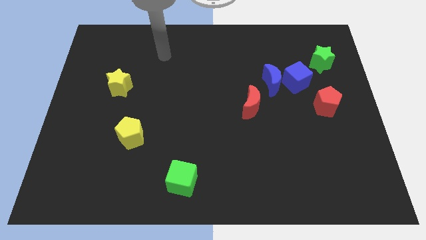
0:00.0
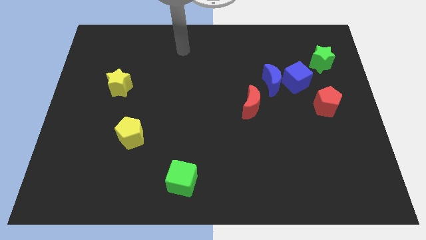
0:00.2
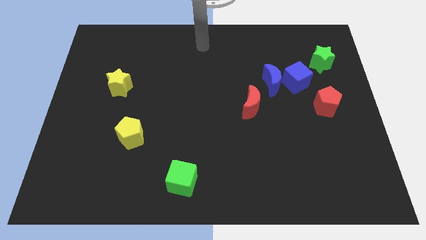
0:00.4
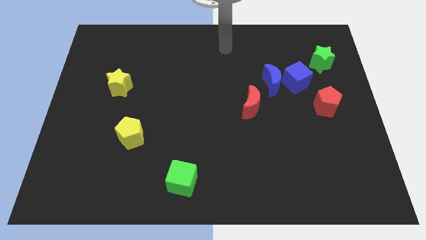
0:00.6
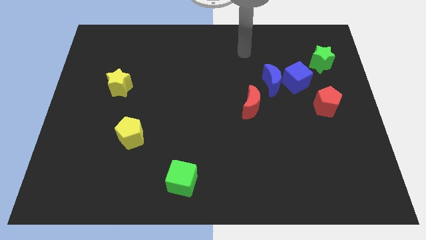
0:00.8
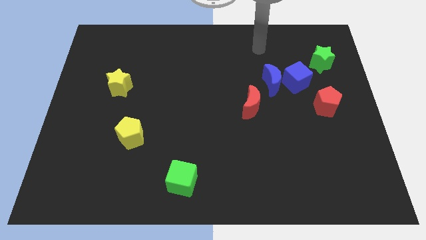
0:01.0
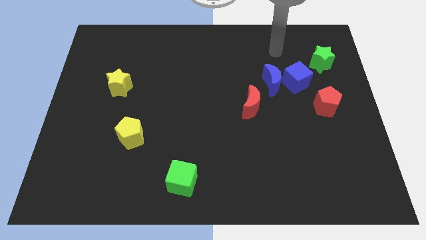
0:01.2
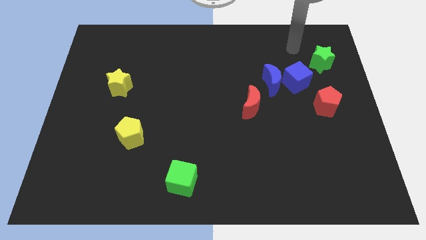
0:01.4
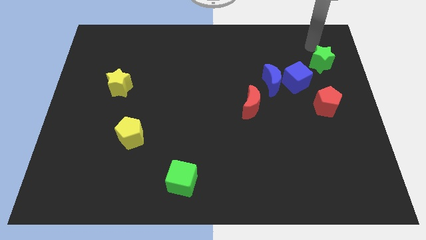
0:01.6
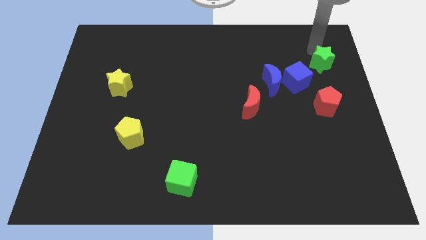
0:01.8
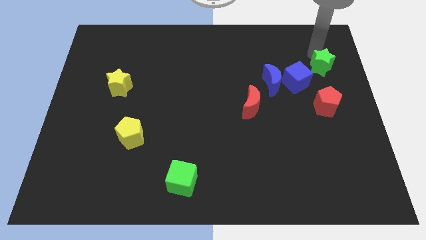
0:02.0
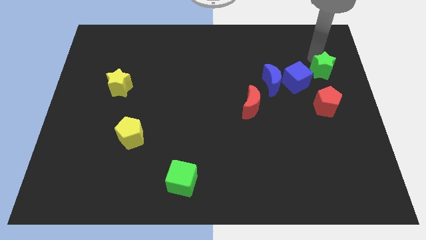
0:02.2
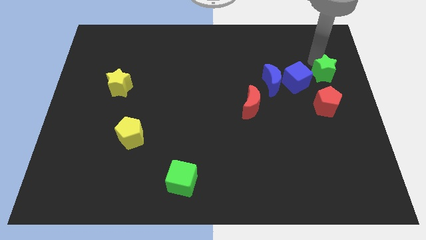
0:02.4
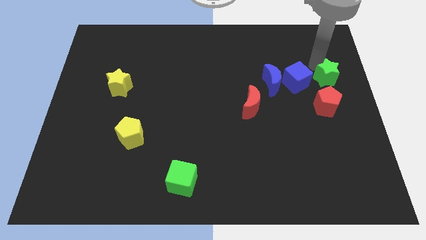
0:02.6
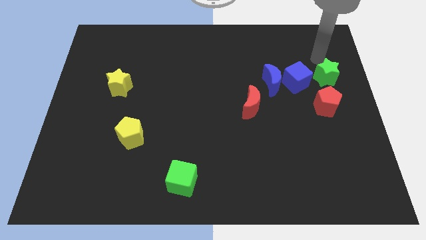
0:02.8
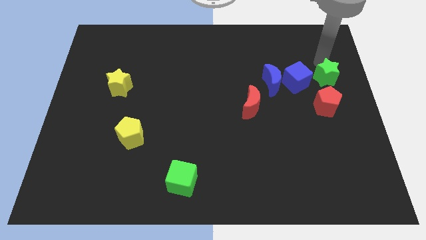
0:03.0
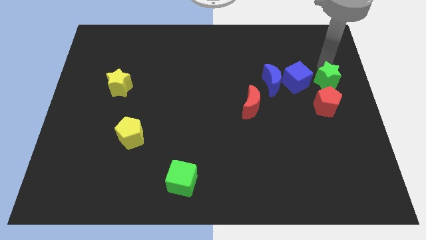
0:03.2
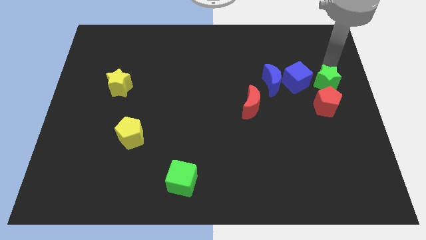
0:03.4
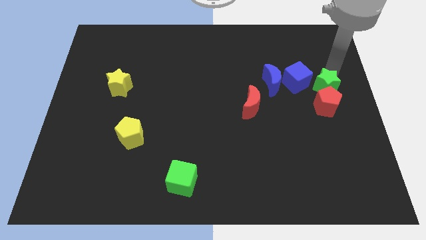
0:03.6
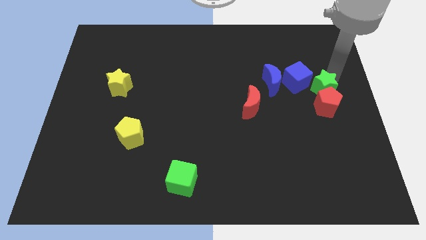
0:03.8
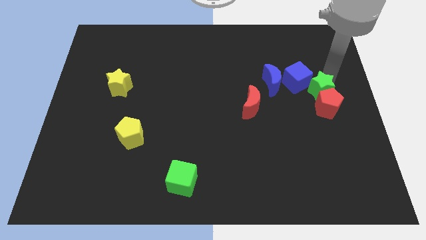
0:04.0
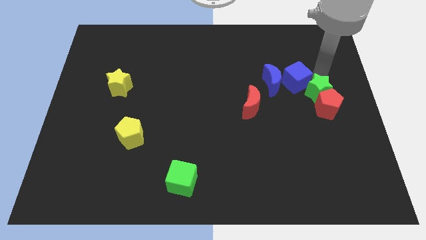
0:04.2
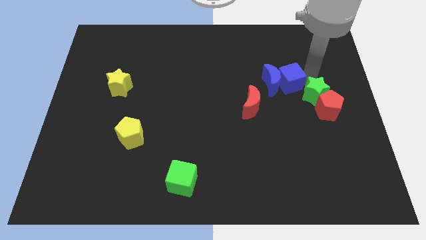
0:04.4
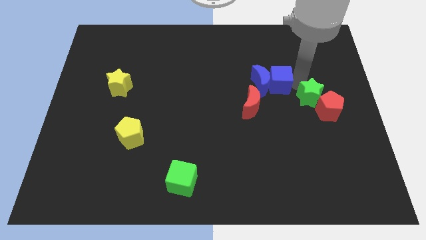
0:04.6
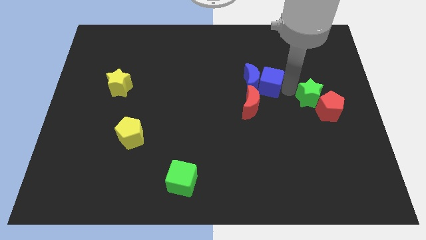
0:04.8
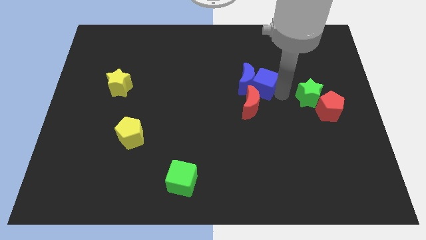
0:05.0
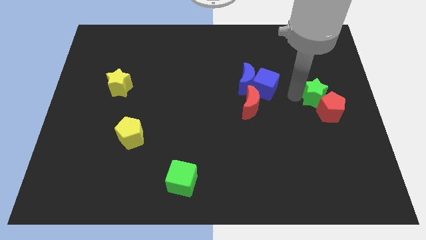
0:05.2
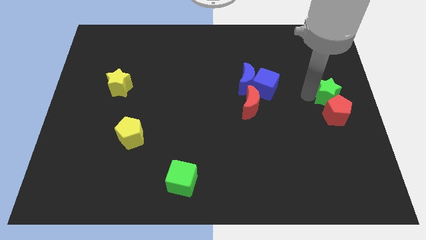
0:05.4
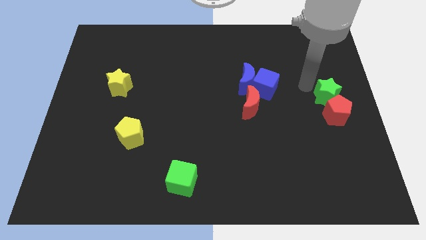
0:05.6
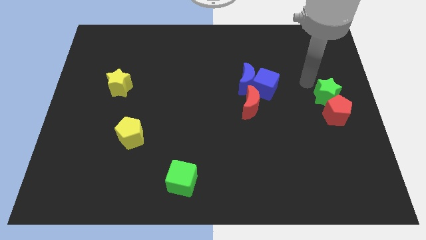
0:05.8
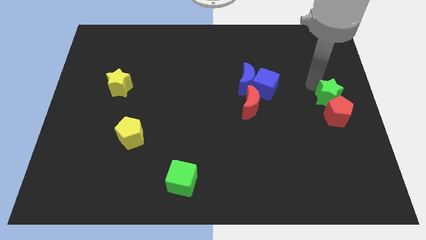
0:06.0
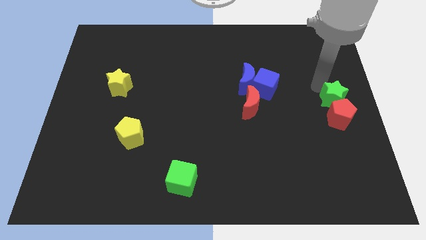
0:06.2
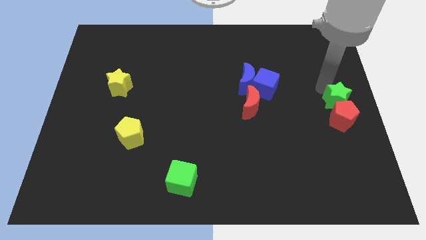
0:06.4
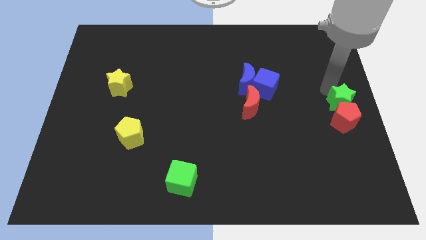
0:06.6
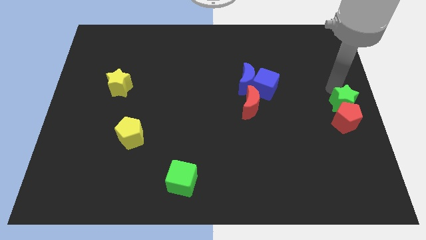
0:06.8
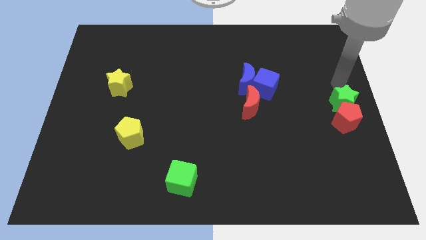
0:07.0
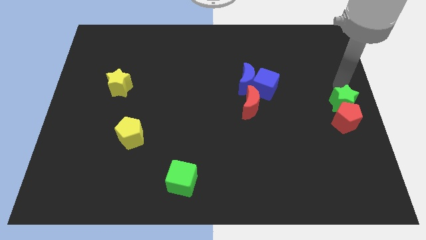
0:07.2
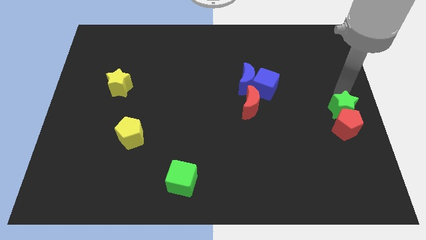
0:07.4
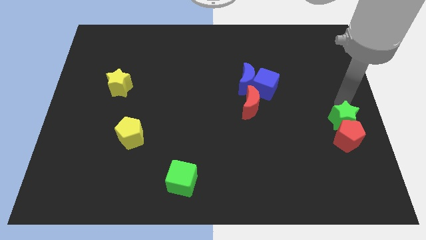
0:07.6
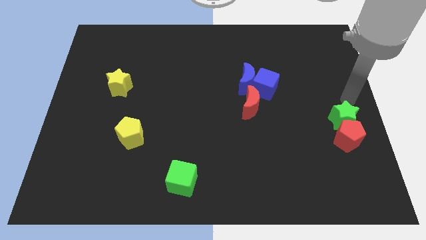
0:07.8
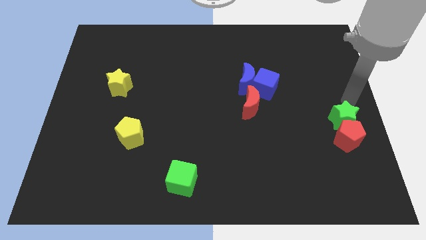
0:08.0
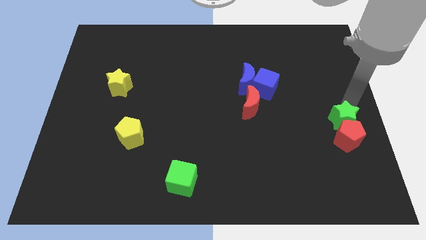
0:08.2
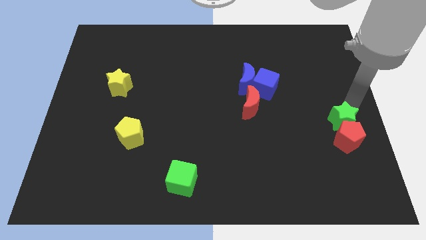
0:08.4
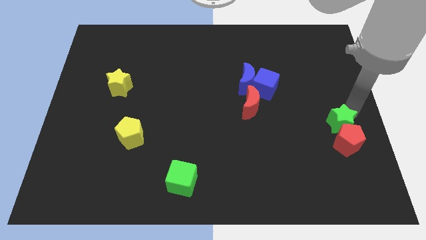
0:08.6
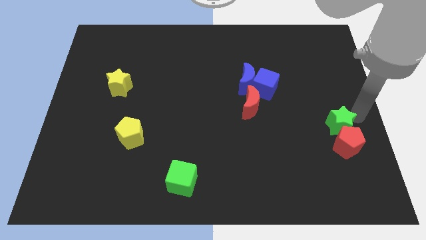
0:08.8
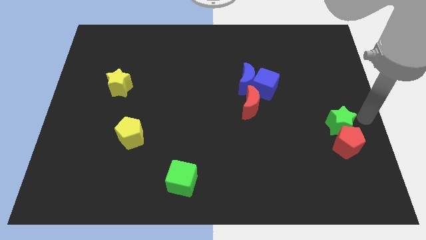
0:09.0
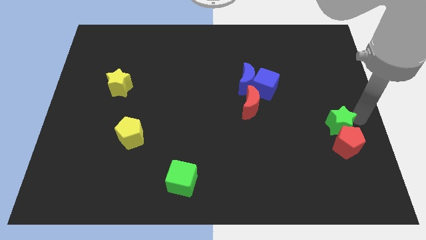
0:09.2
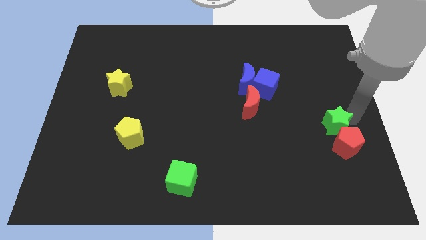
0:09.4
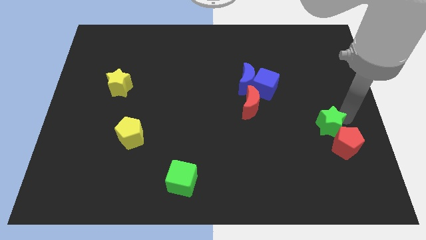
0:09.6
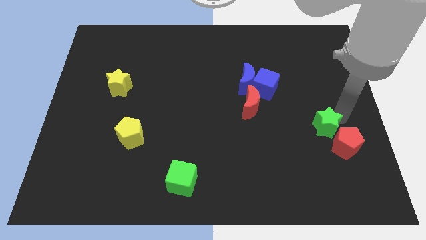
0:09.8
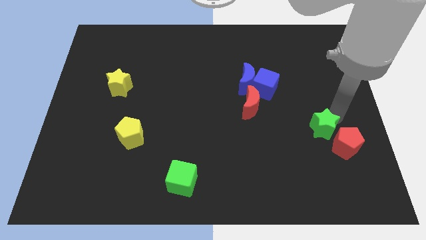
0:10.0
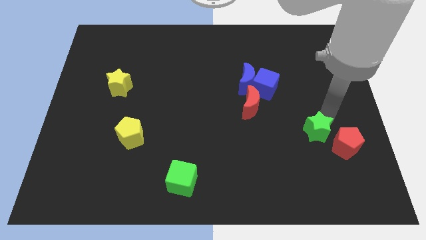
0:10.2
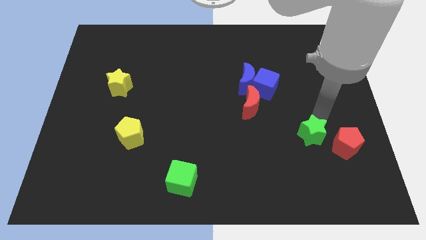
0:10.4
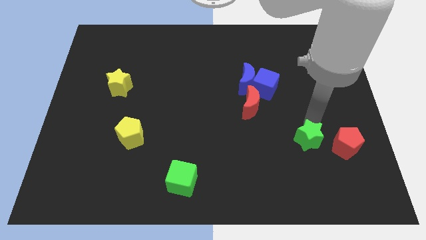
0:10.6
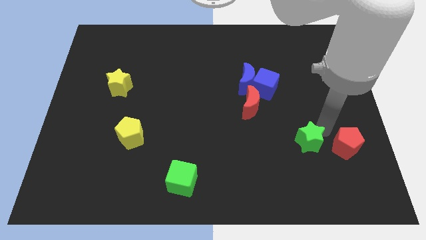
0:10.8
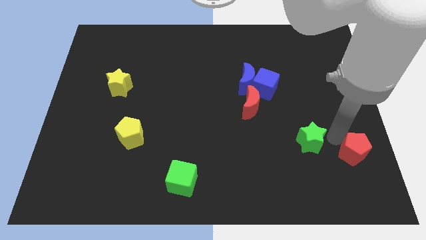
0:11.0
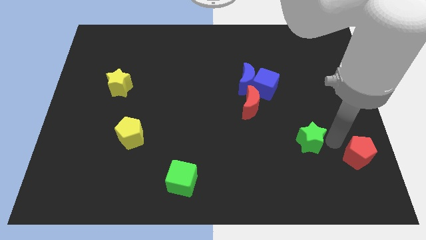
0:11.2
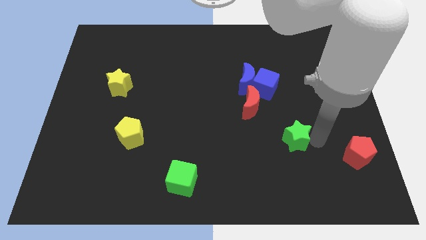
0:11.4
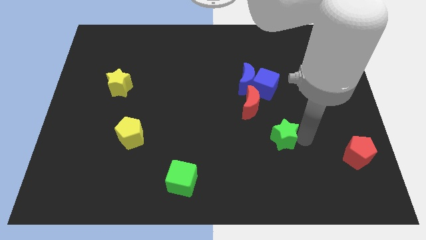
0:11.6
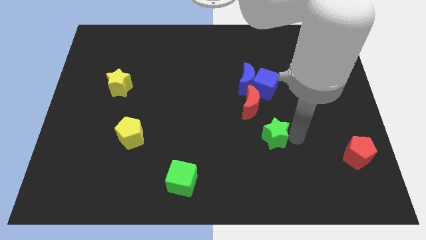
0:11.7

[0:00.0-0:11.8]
put the green star below the red moon

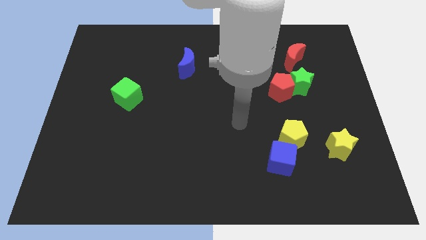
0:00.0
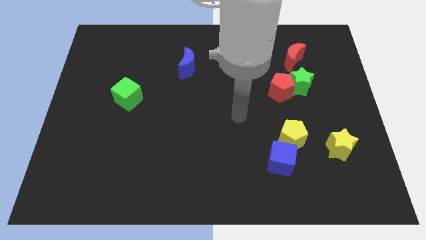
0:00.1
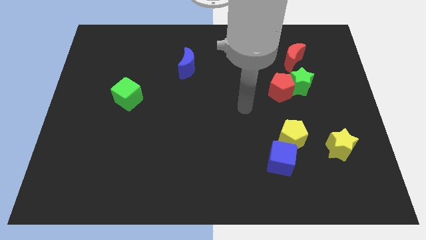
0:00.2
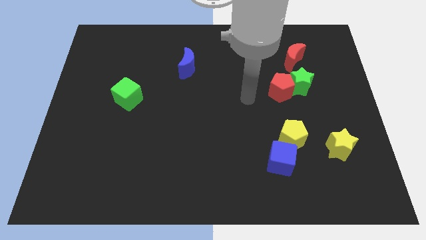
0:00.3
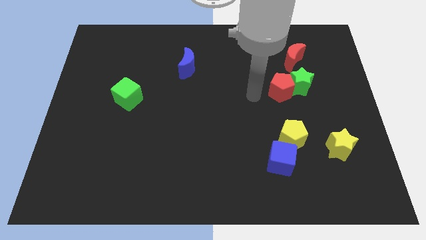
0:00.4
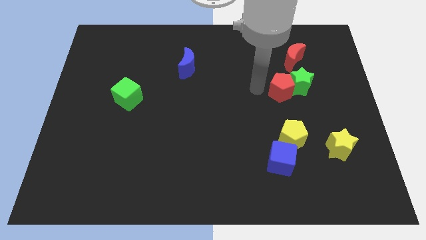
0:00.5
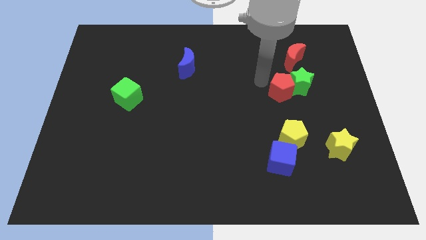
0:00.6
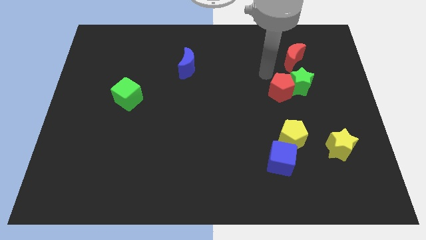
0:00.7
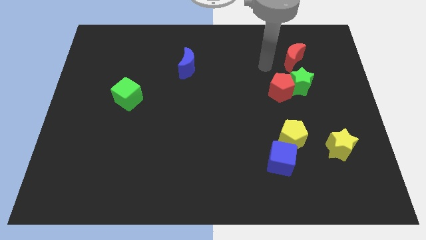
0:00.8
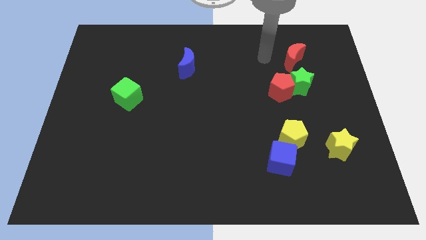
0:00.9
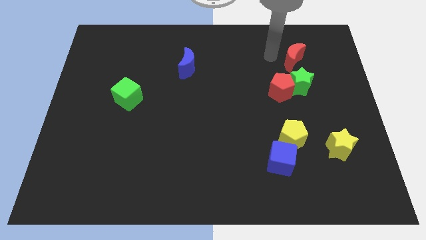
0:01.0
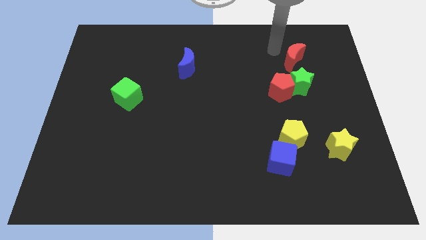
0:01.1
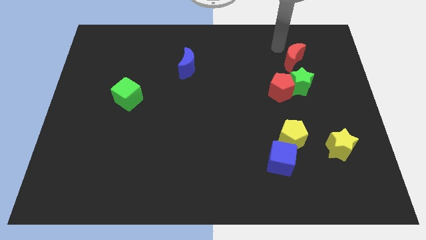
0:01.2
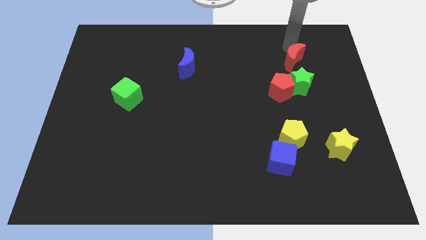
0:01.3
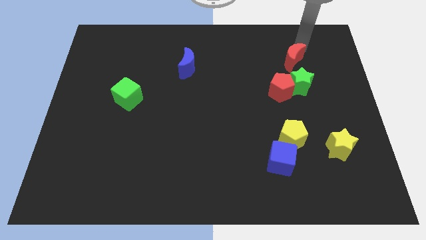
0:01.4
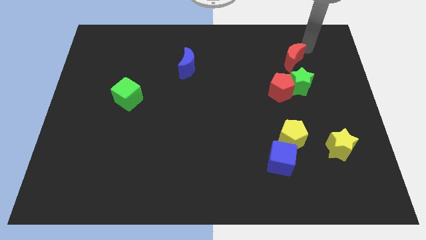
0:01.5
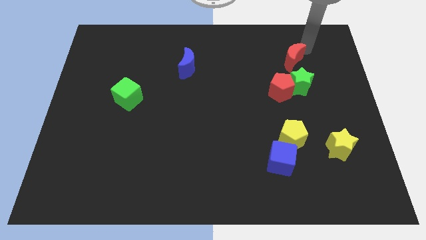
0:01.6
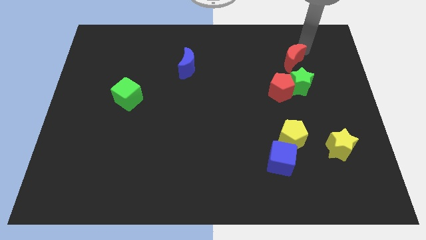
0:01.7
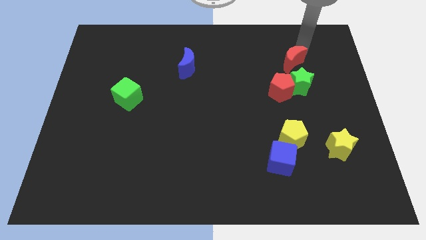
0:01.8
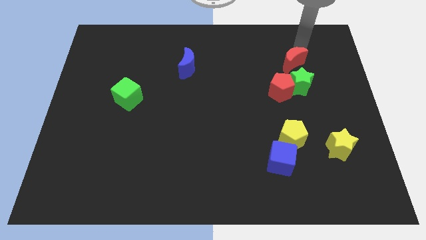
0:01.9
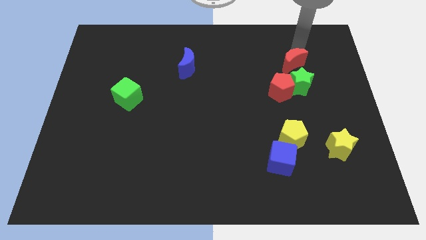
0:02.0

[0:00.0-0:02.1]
slide the red moon to the top left side of the green star
